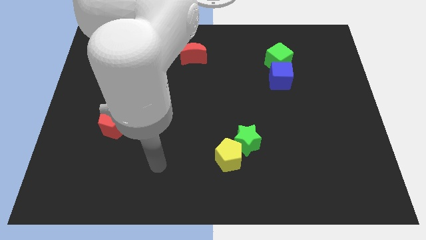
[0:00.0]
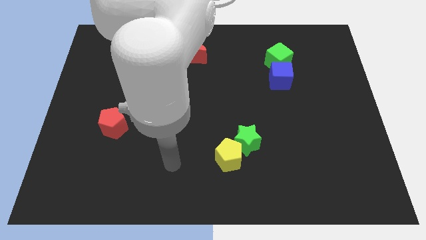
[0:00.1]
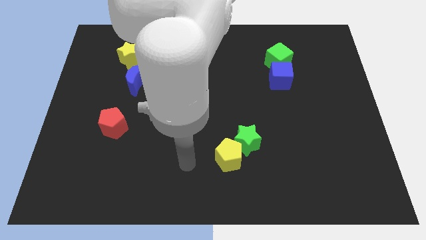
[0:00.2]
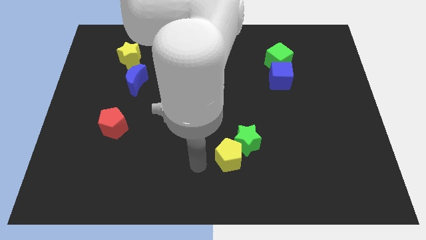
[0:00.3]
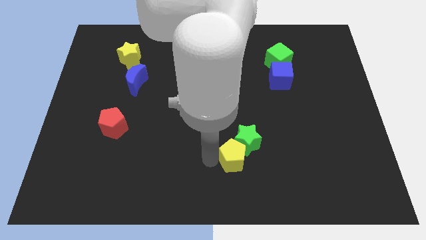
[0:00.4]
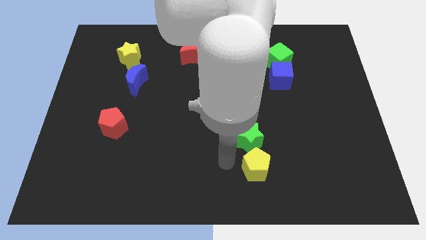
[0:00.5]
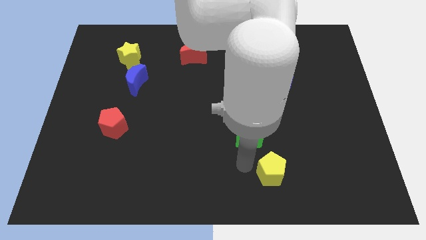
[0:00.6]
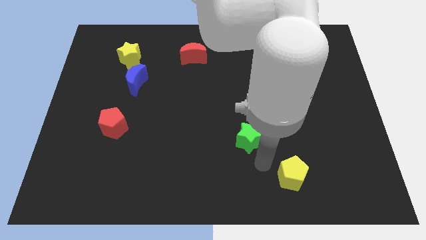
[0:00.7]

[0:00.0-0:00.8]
pull the green star apart from the yellow pentagon

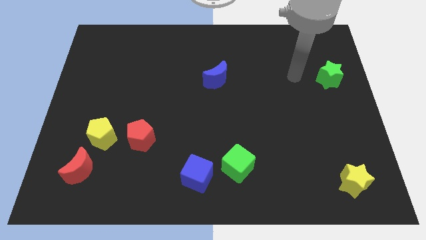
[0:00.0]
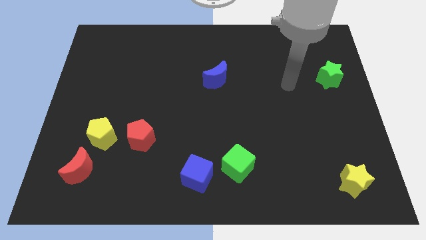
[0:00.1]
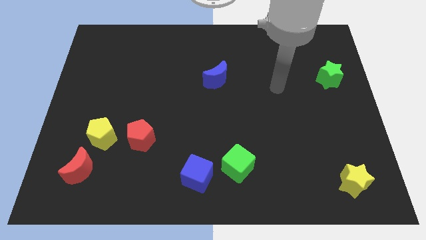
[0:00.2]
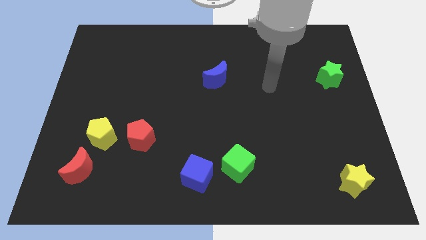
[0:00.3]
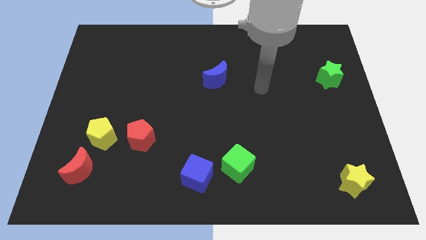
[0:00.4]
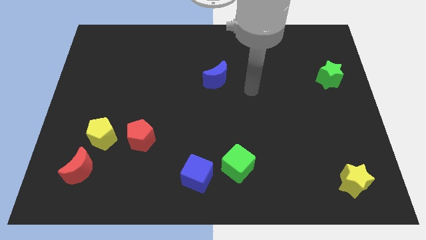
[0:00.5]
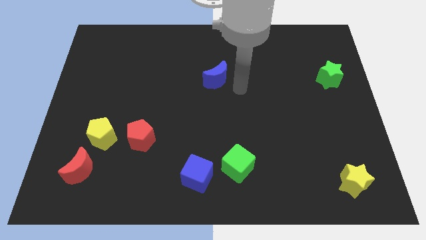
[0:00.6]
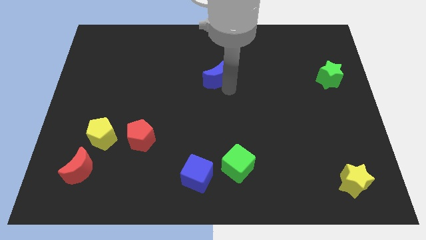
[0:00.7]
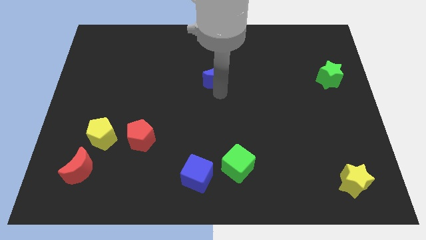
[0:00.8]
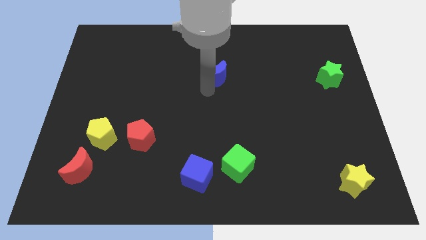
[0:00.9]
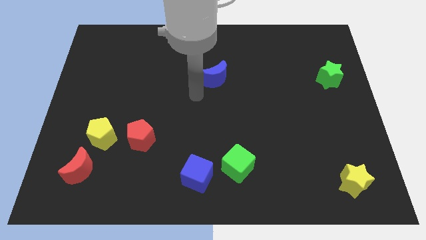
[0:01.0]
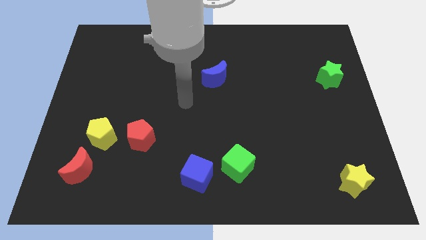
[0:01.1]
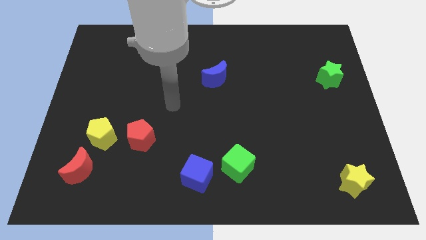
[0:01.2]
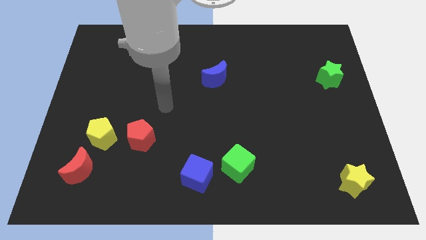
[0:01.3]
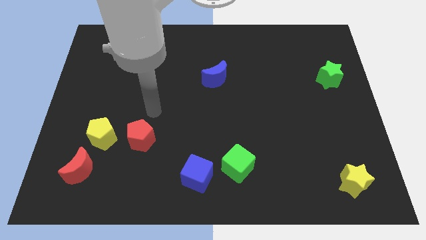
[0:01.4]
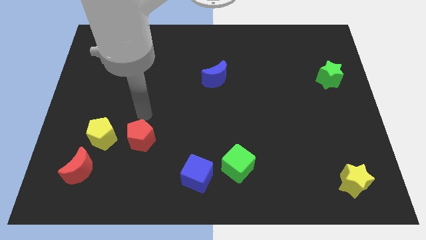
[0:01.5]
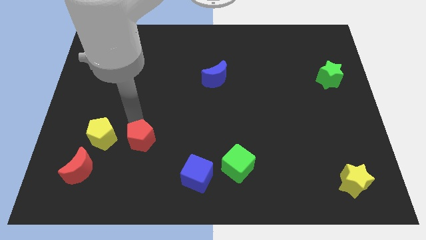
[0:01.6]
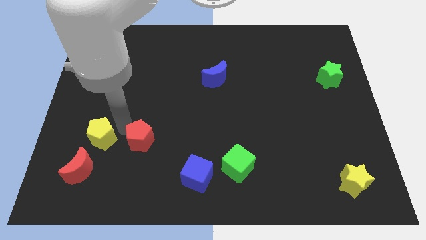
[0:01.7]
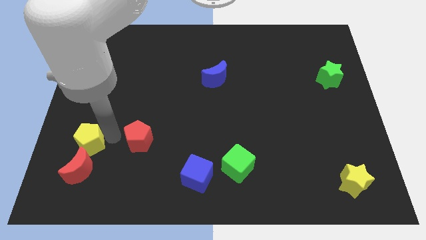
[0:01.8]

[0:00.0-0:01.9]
separate the red pentagon from the yellow pentagon

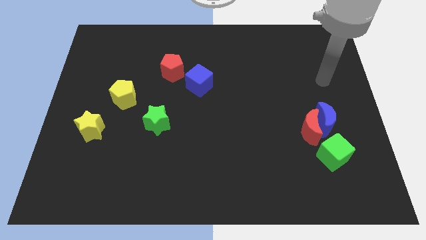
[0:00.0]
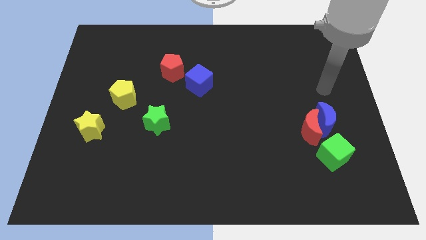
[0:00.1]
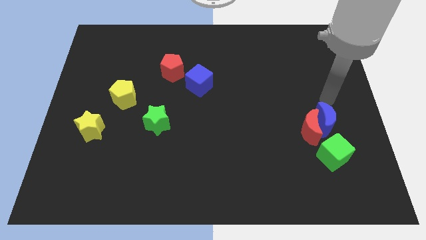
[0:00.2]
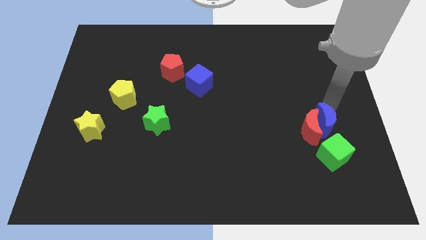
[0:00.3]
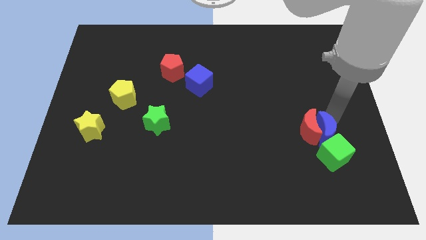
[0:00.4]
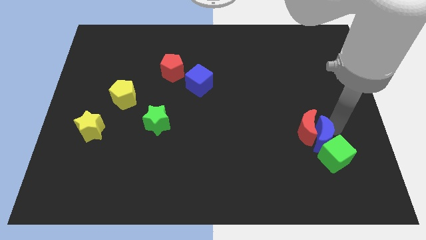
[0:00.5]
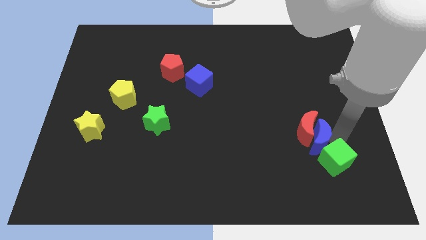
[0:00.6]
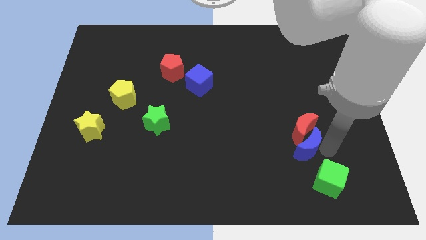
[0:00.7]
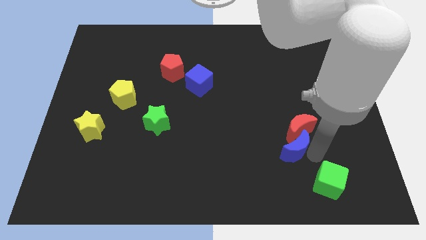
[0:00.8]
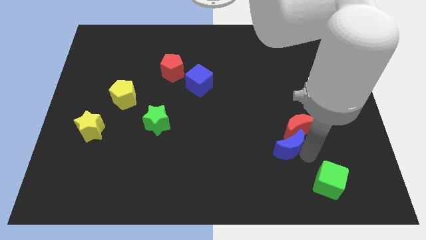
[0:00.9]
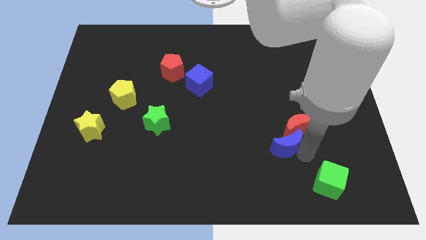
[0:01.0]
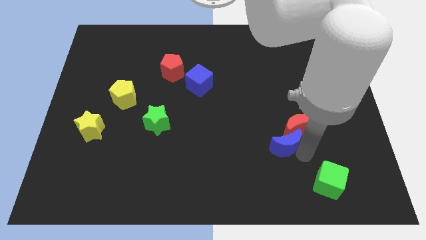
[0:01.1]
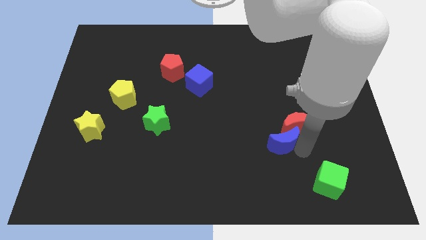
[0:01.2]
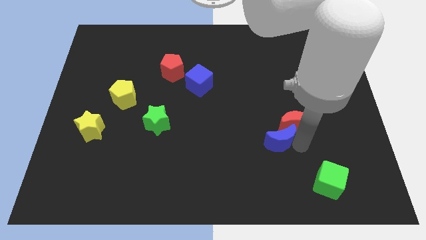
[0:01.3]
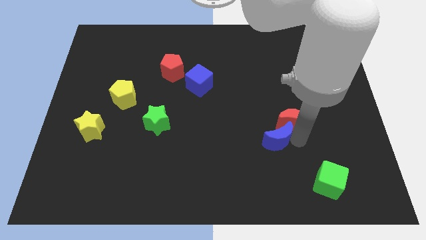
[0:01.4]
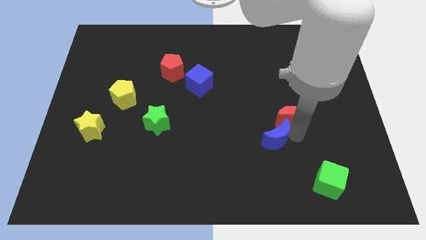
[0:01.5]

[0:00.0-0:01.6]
move the red moon away from the blue moon and green cube

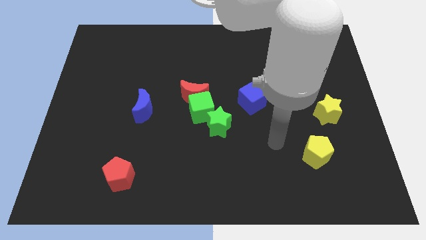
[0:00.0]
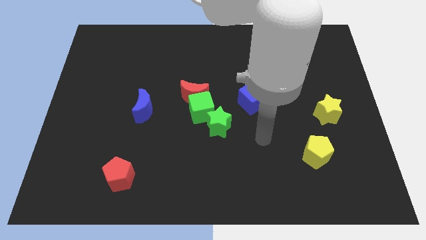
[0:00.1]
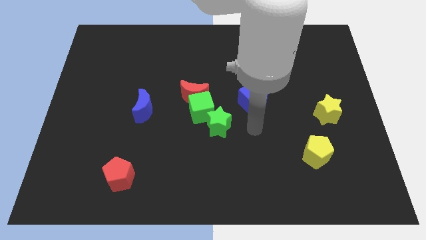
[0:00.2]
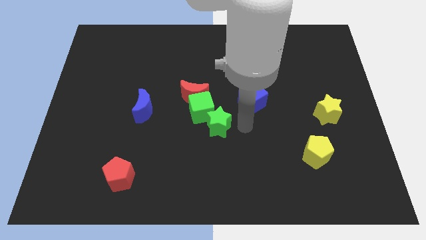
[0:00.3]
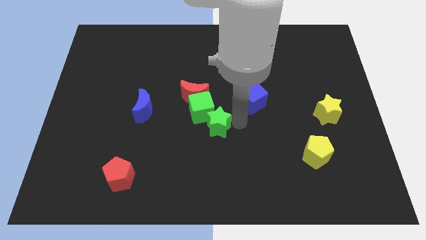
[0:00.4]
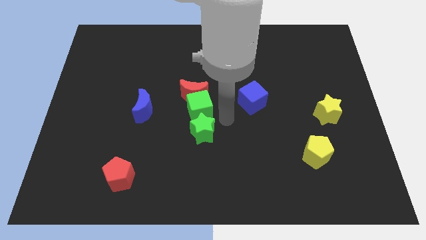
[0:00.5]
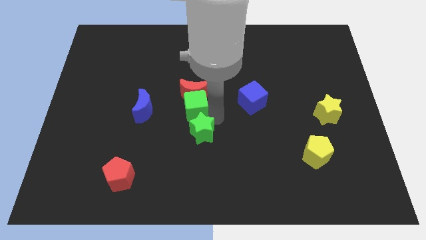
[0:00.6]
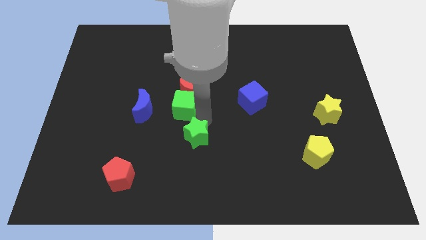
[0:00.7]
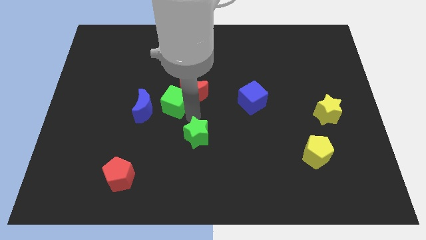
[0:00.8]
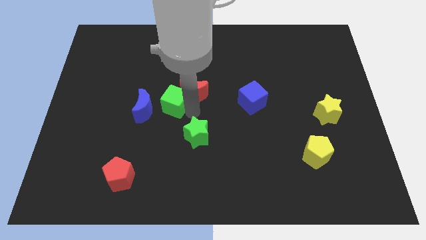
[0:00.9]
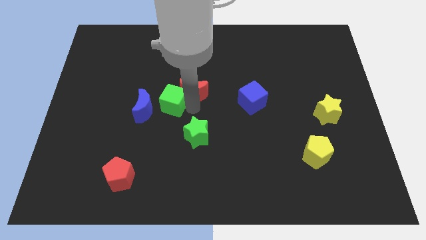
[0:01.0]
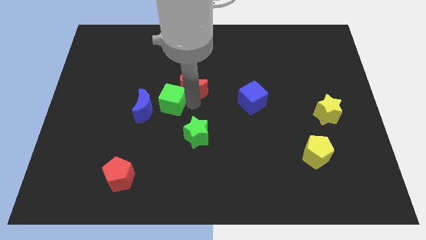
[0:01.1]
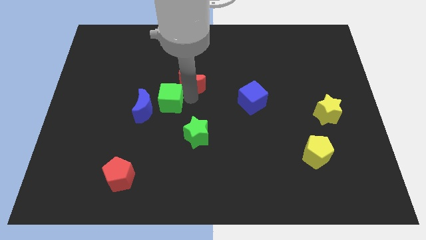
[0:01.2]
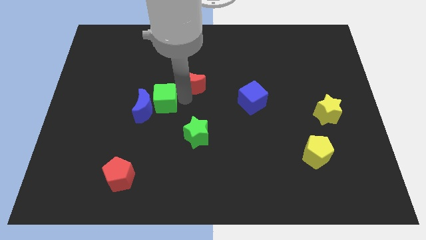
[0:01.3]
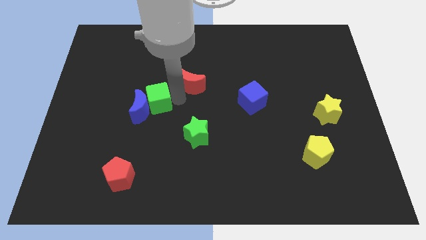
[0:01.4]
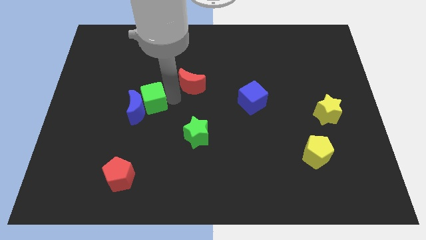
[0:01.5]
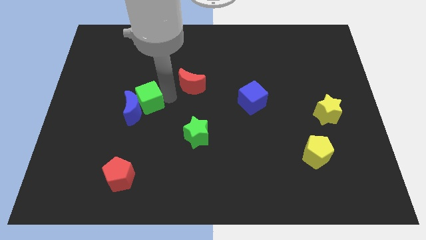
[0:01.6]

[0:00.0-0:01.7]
separate the red moon from the green cube

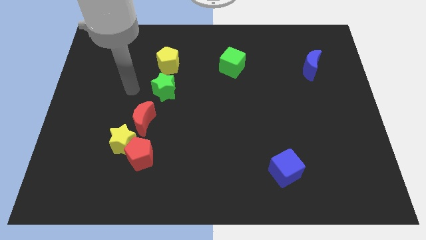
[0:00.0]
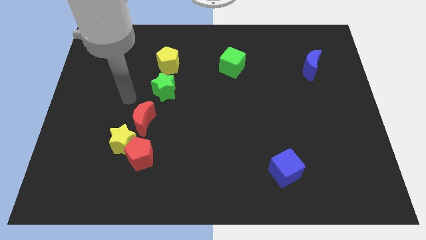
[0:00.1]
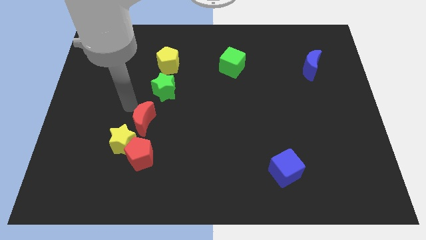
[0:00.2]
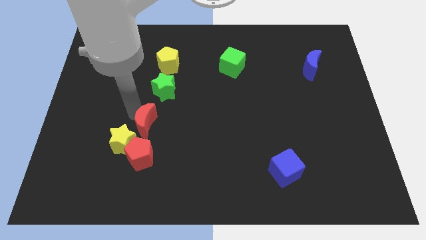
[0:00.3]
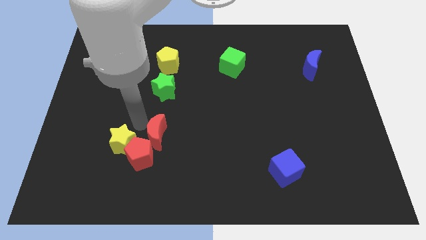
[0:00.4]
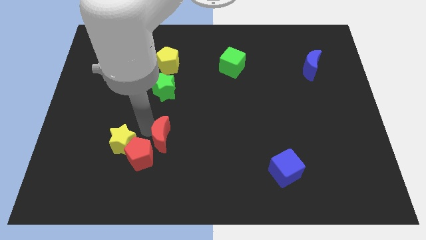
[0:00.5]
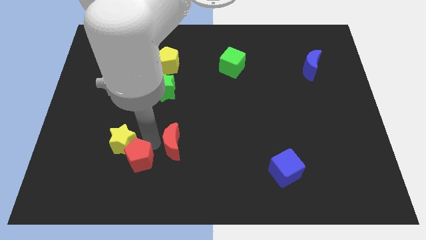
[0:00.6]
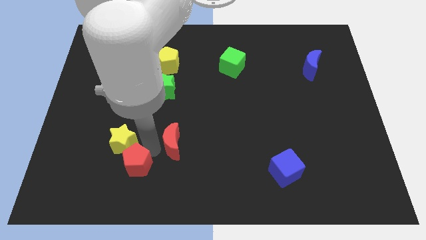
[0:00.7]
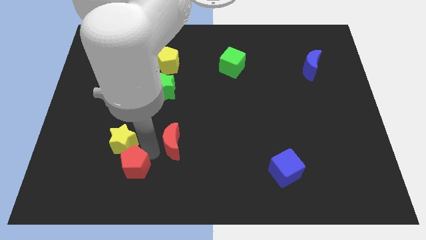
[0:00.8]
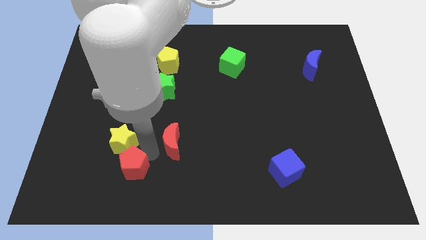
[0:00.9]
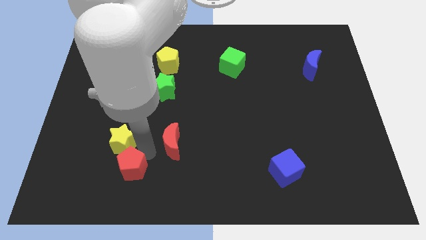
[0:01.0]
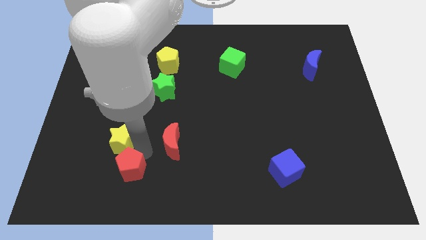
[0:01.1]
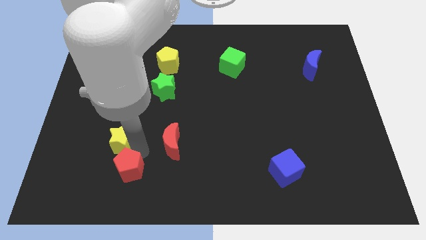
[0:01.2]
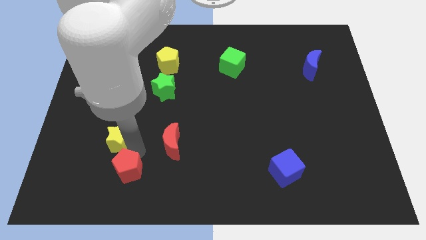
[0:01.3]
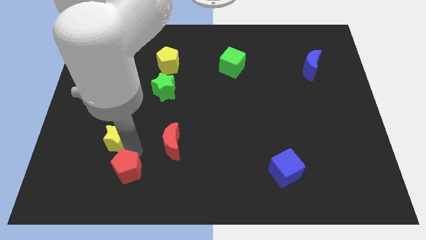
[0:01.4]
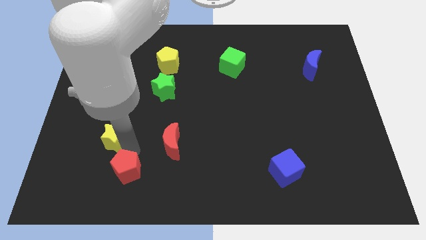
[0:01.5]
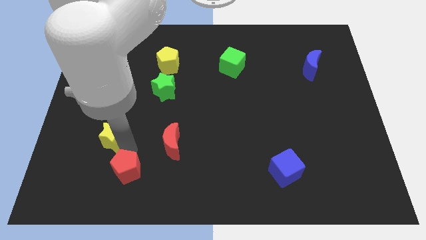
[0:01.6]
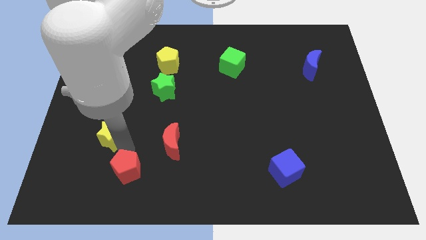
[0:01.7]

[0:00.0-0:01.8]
move the yellow star away from the red pentagon and red moon

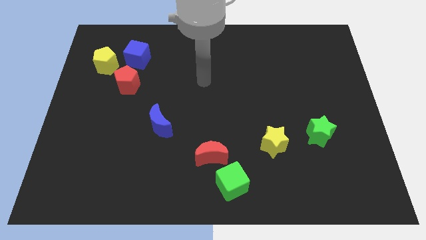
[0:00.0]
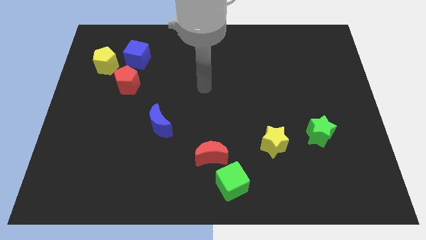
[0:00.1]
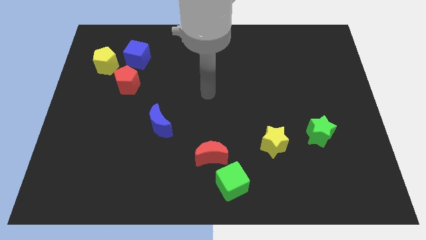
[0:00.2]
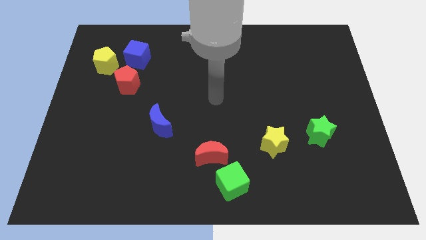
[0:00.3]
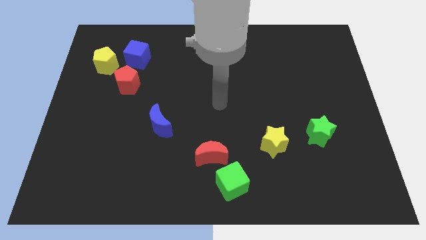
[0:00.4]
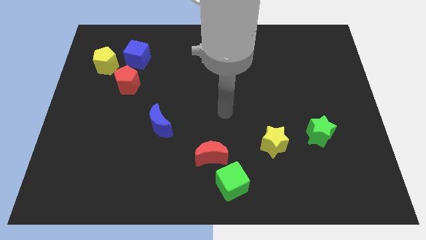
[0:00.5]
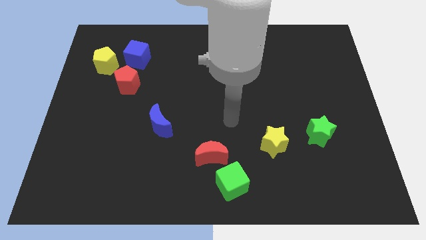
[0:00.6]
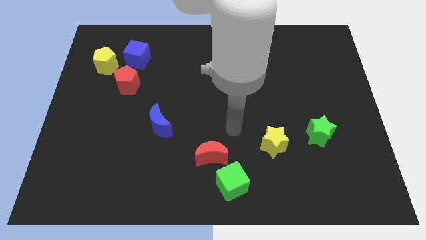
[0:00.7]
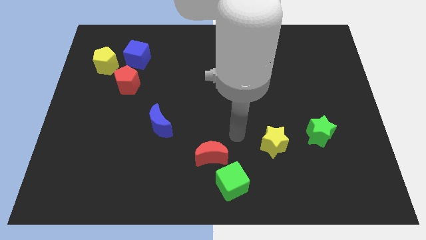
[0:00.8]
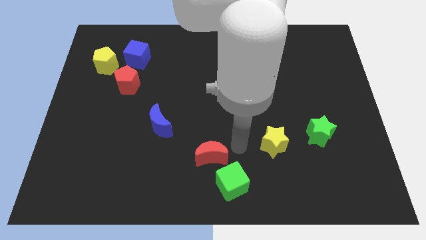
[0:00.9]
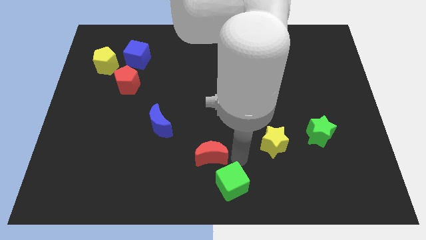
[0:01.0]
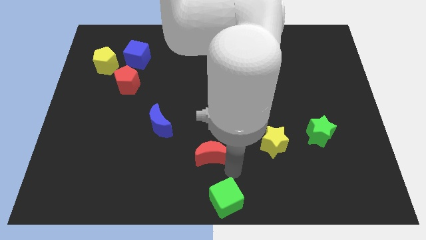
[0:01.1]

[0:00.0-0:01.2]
move the red moon away from the green cube

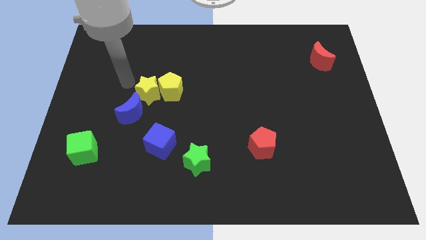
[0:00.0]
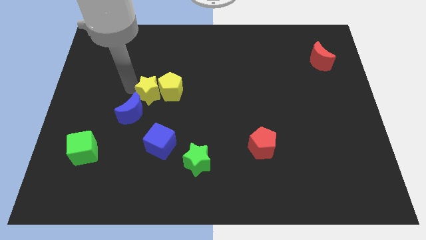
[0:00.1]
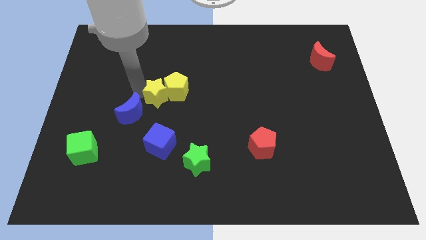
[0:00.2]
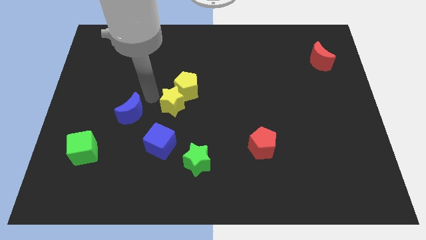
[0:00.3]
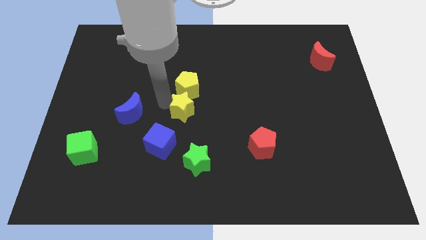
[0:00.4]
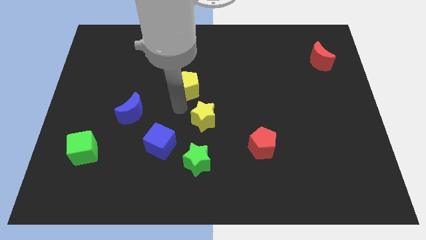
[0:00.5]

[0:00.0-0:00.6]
move the yellow pentagon away from the yellow star
